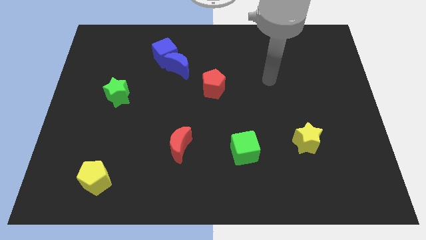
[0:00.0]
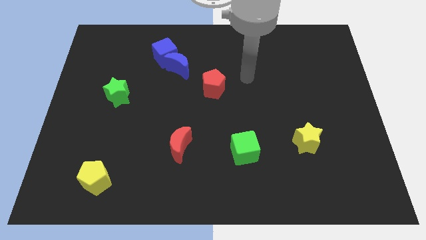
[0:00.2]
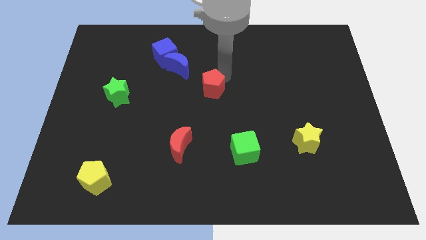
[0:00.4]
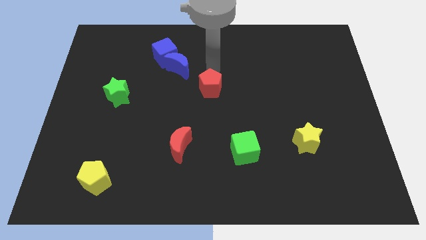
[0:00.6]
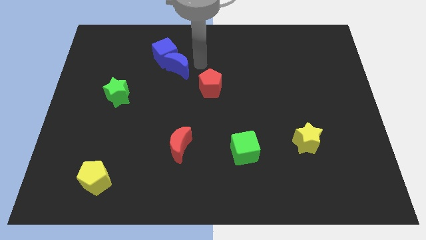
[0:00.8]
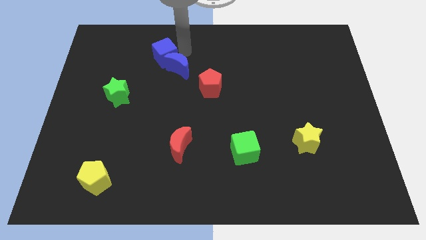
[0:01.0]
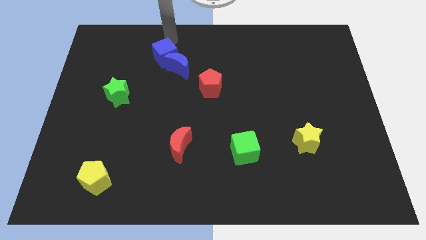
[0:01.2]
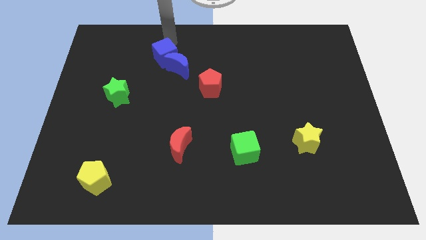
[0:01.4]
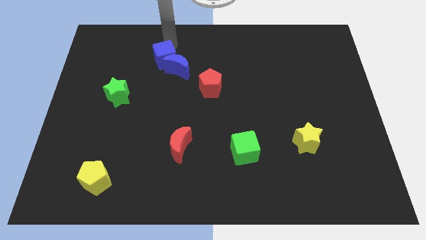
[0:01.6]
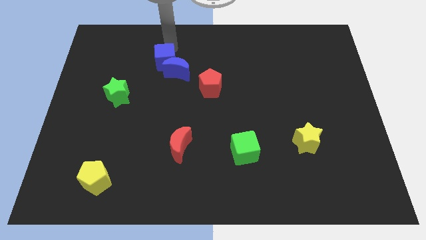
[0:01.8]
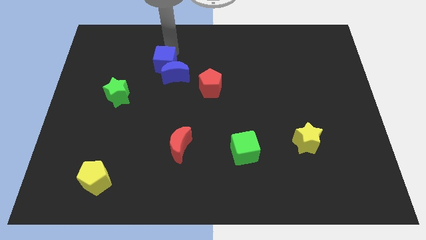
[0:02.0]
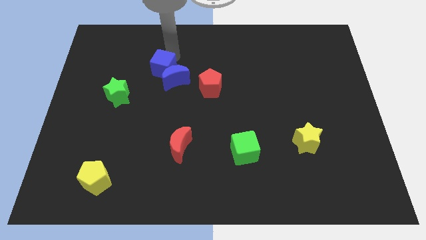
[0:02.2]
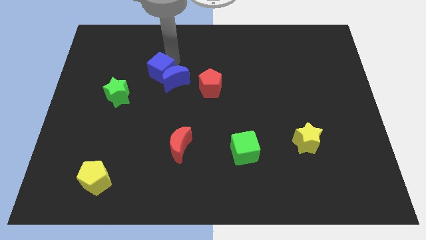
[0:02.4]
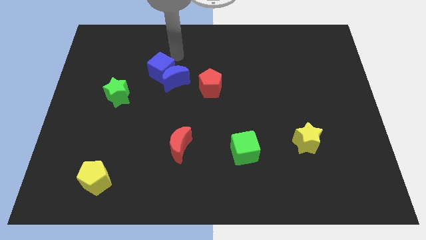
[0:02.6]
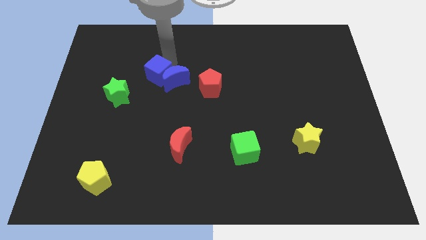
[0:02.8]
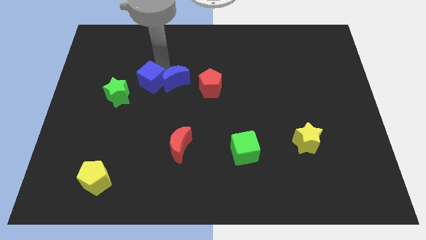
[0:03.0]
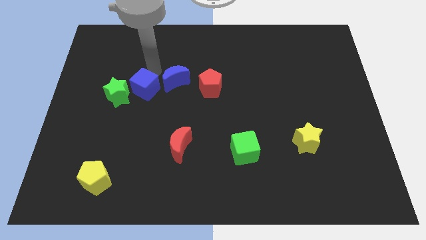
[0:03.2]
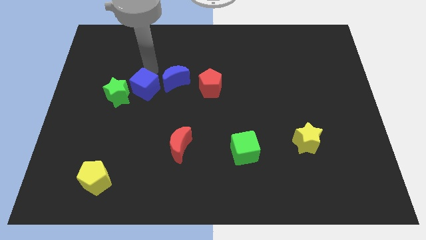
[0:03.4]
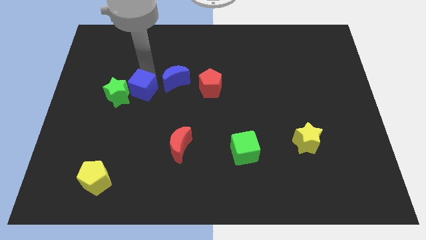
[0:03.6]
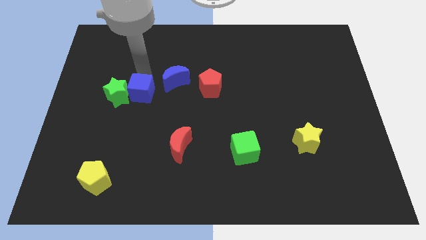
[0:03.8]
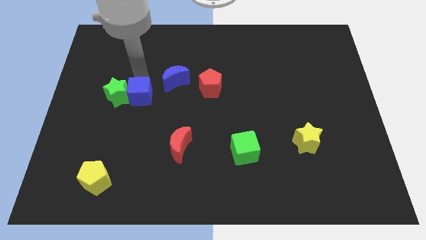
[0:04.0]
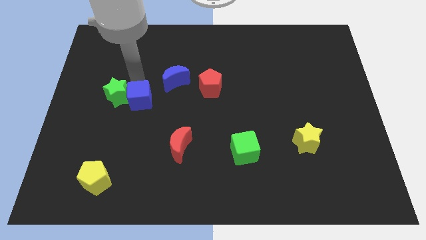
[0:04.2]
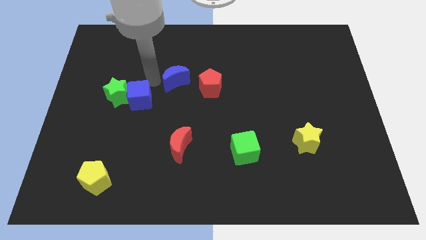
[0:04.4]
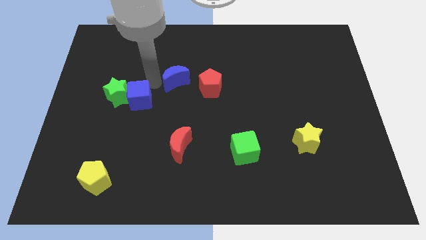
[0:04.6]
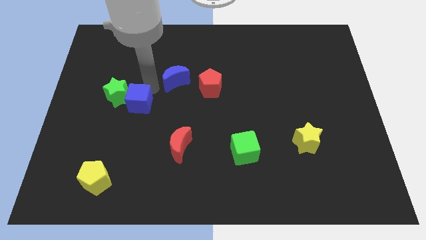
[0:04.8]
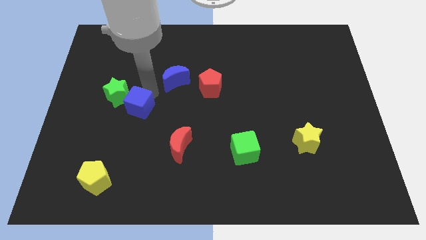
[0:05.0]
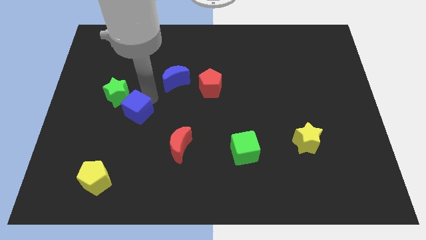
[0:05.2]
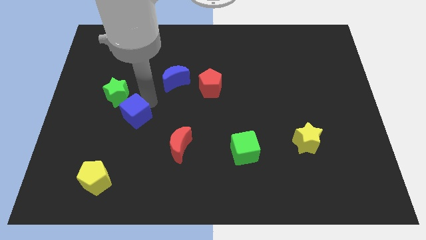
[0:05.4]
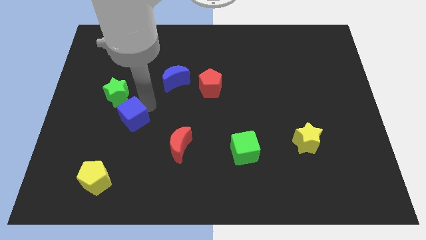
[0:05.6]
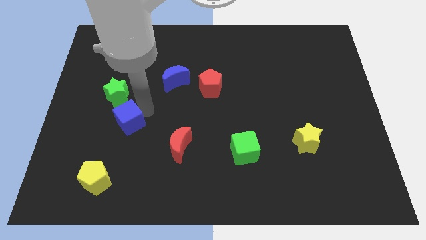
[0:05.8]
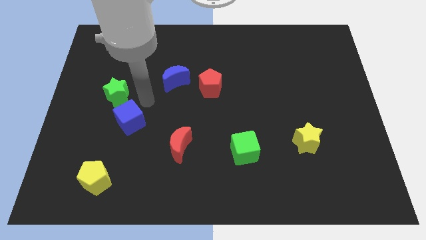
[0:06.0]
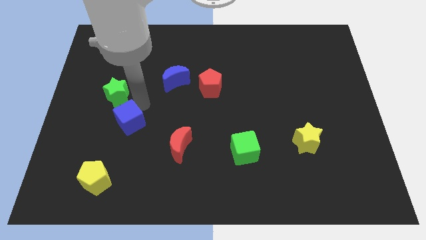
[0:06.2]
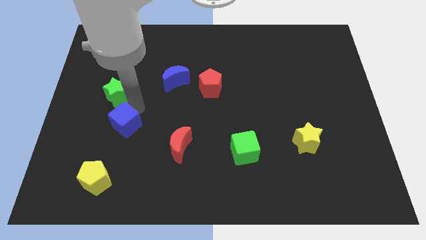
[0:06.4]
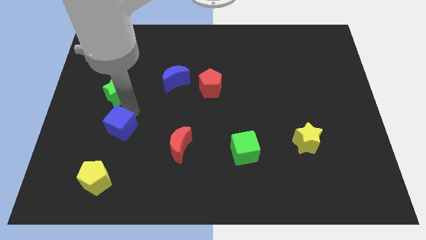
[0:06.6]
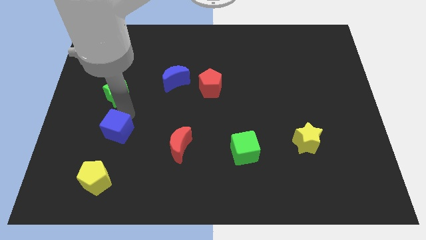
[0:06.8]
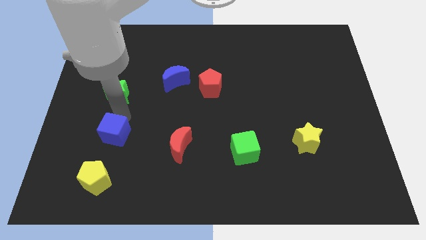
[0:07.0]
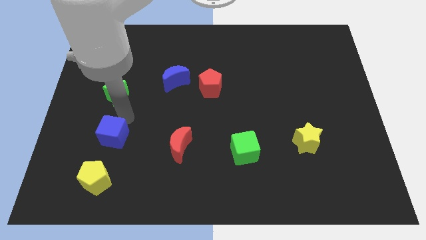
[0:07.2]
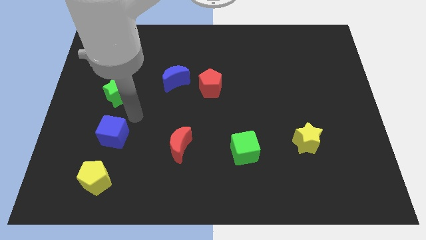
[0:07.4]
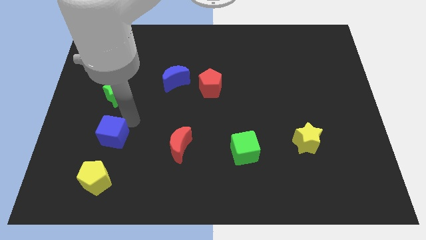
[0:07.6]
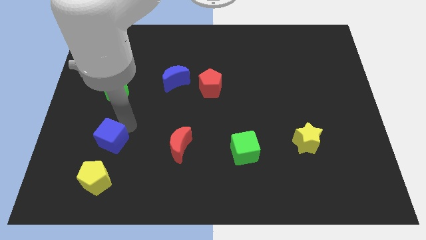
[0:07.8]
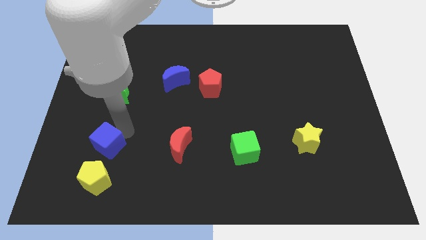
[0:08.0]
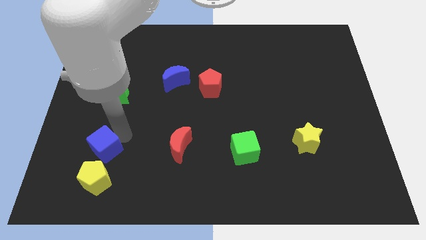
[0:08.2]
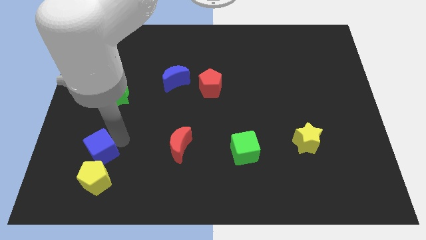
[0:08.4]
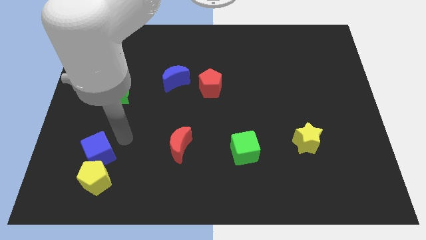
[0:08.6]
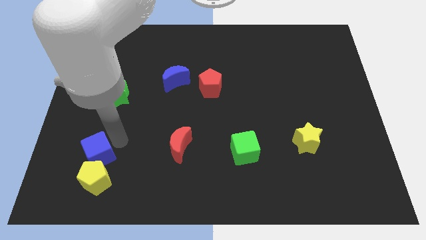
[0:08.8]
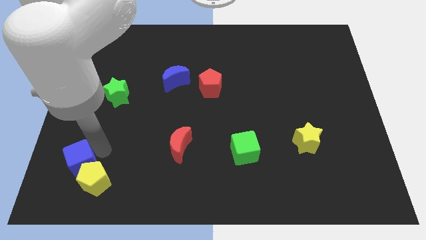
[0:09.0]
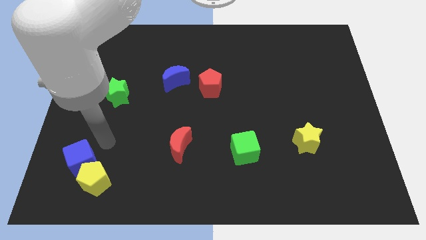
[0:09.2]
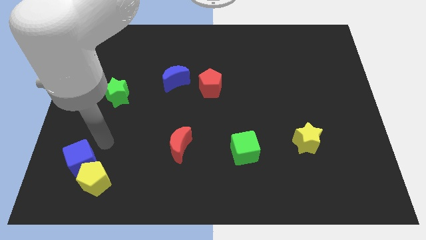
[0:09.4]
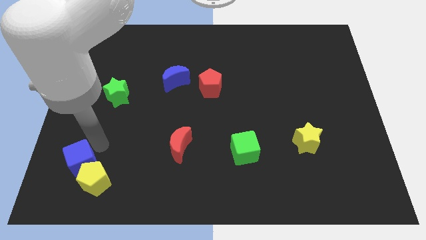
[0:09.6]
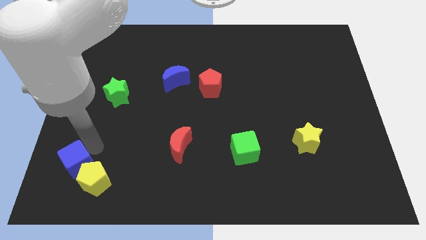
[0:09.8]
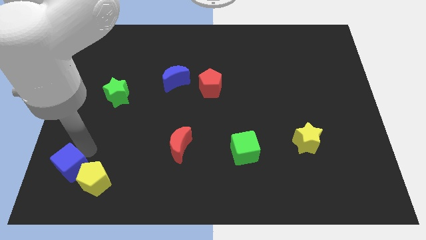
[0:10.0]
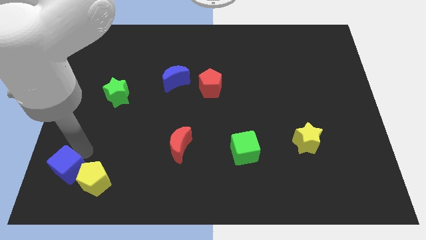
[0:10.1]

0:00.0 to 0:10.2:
push the blue cube to the bottom left of the board

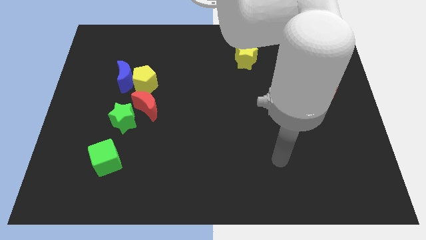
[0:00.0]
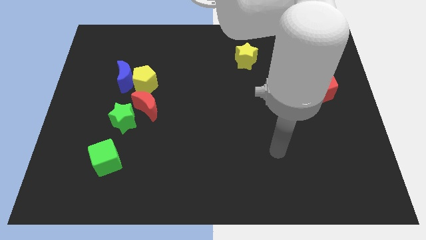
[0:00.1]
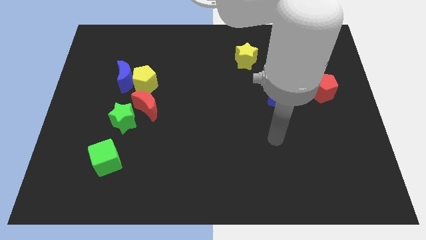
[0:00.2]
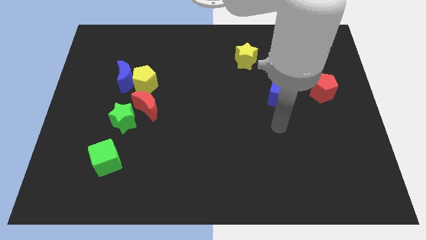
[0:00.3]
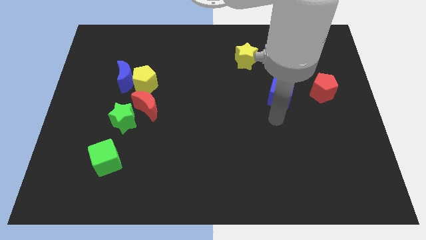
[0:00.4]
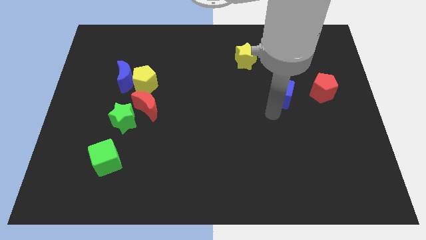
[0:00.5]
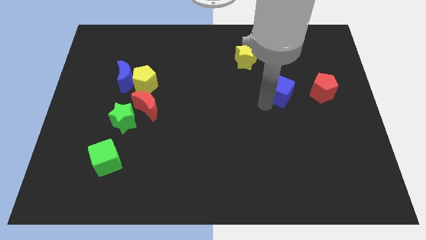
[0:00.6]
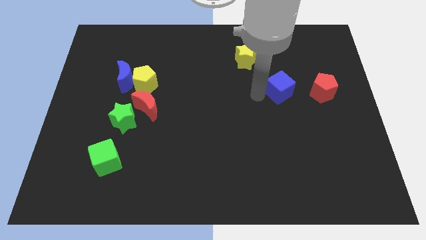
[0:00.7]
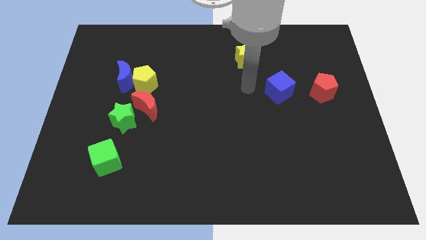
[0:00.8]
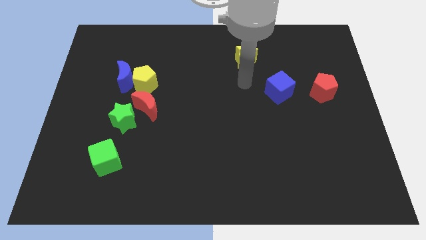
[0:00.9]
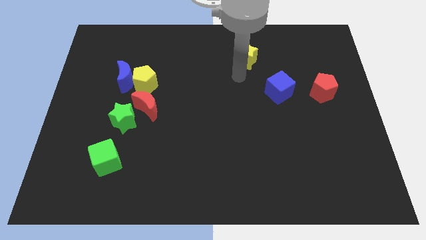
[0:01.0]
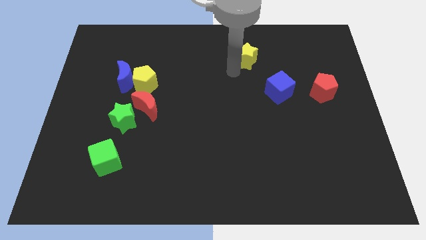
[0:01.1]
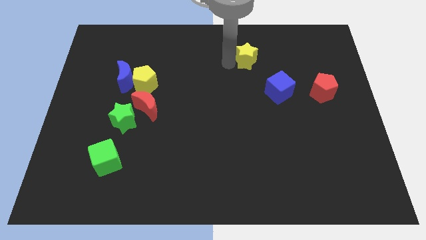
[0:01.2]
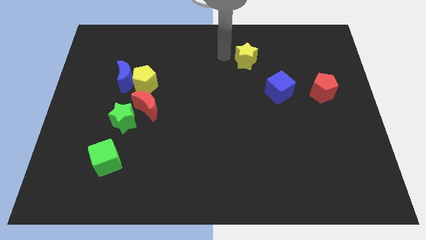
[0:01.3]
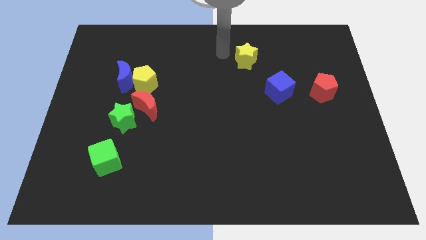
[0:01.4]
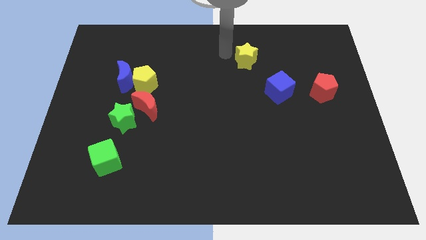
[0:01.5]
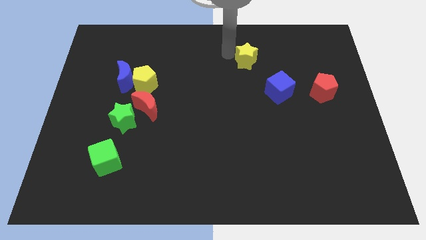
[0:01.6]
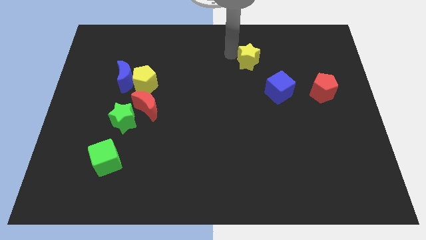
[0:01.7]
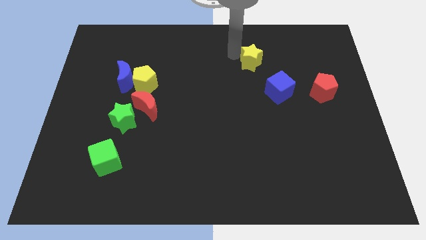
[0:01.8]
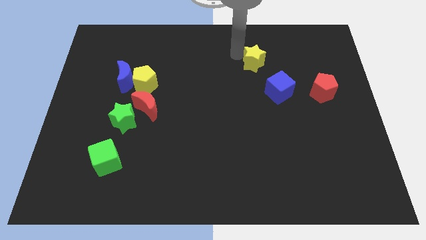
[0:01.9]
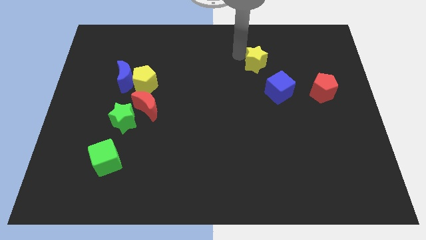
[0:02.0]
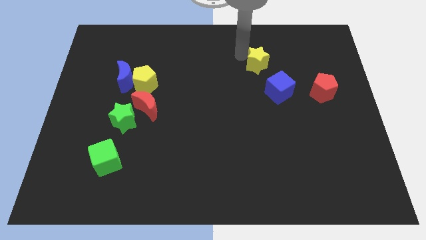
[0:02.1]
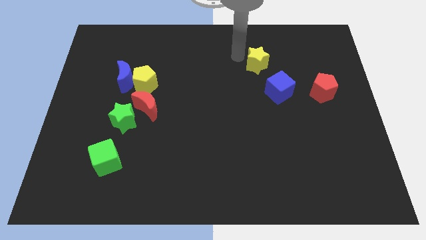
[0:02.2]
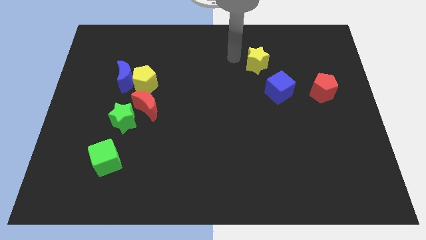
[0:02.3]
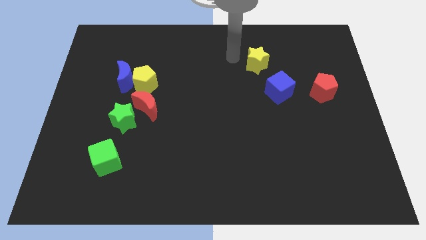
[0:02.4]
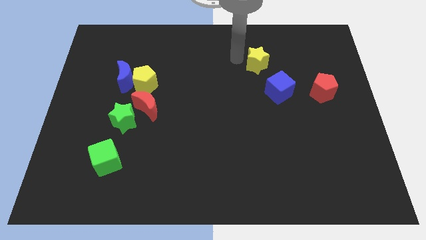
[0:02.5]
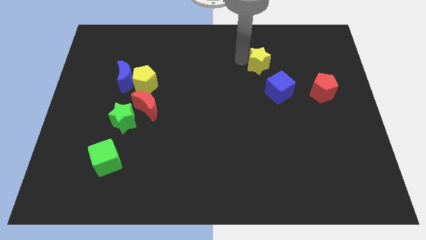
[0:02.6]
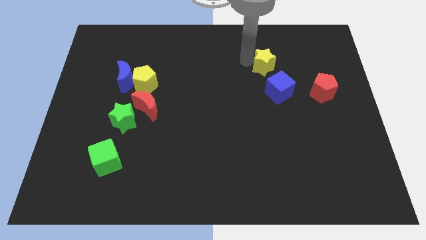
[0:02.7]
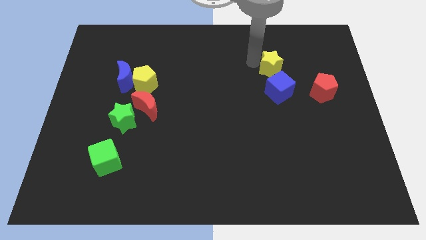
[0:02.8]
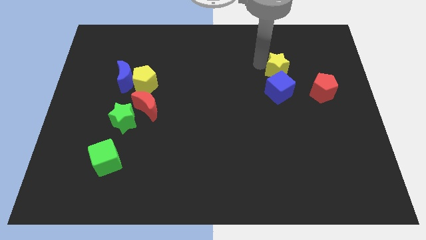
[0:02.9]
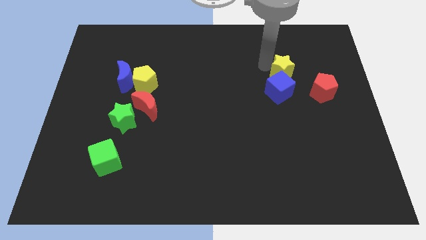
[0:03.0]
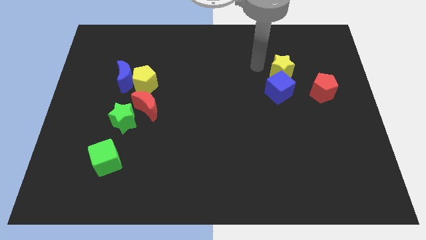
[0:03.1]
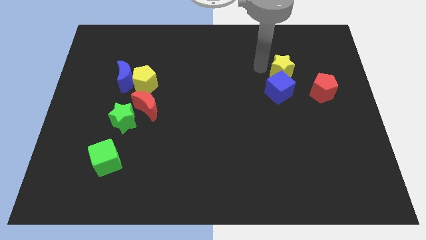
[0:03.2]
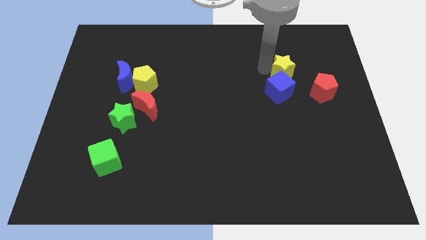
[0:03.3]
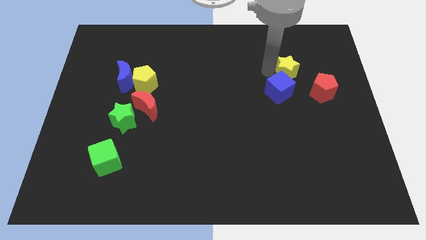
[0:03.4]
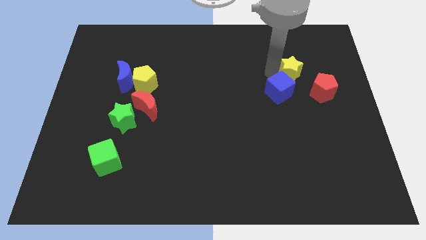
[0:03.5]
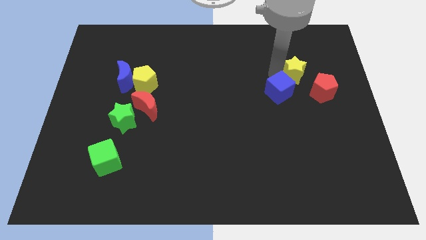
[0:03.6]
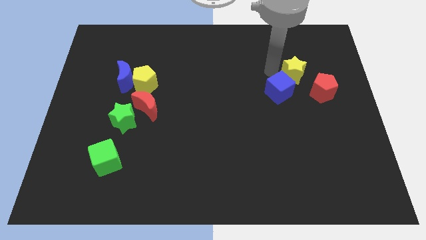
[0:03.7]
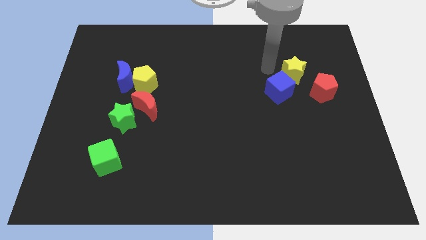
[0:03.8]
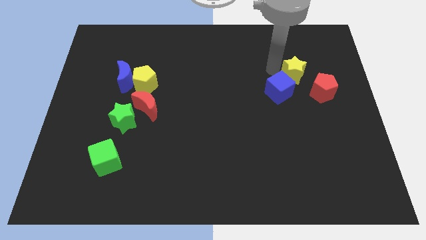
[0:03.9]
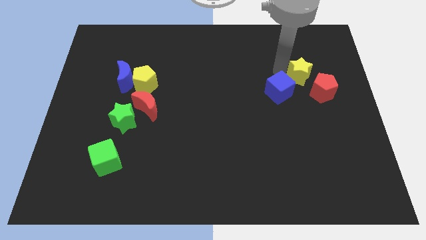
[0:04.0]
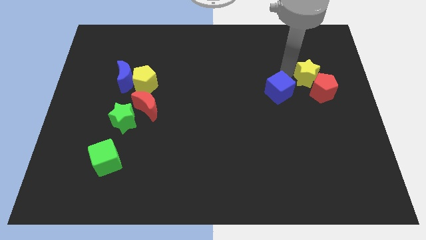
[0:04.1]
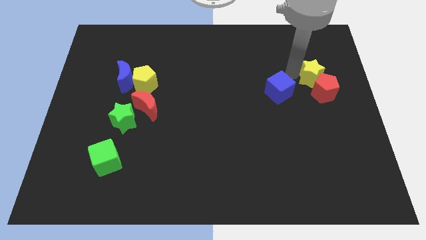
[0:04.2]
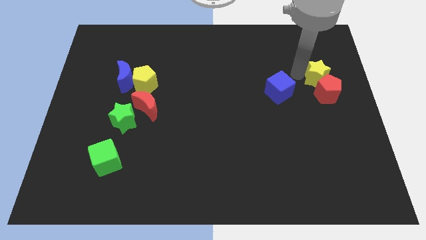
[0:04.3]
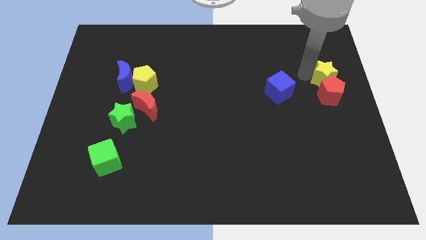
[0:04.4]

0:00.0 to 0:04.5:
slide the yellow star to the right side of the board
